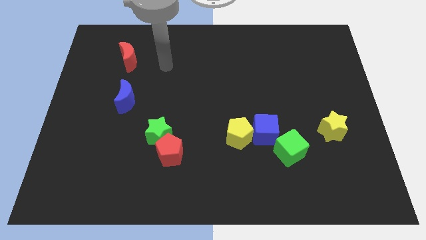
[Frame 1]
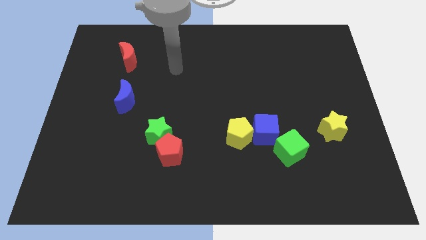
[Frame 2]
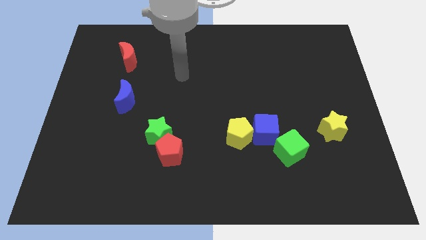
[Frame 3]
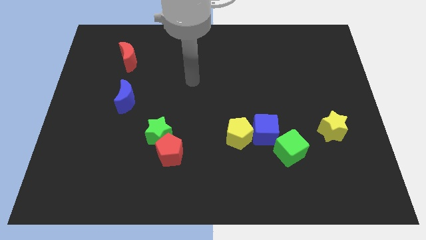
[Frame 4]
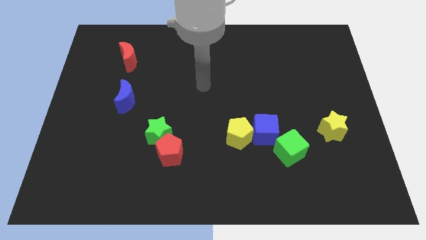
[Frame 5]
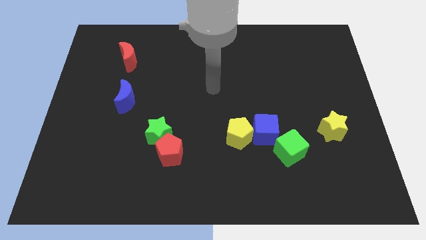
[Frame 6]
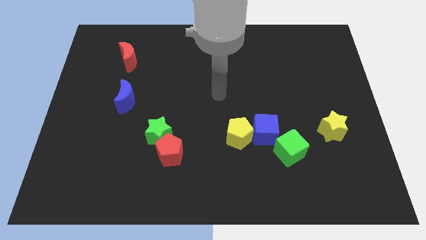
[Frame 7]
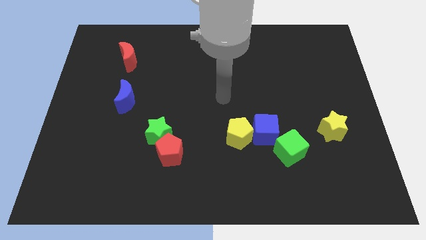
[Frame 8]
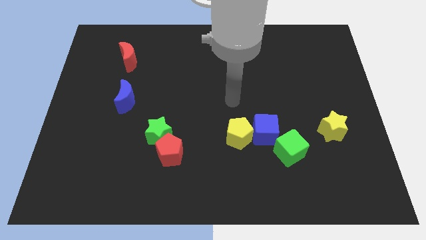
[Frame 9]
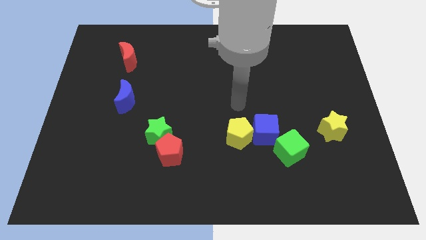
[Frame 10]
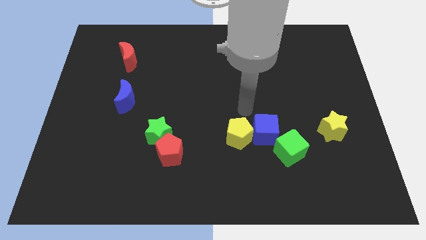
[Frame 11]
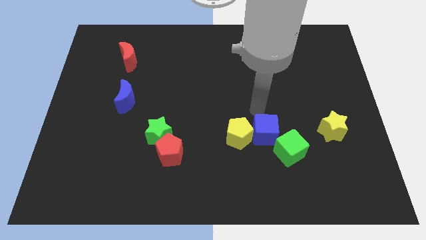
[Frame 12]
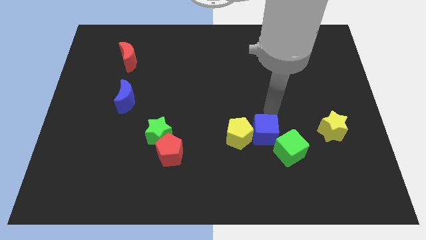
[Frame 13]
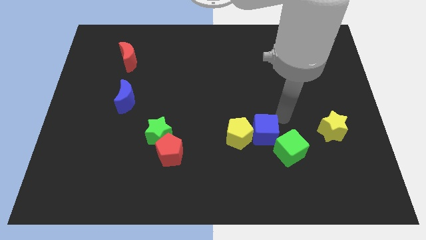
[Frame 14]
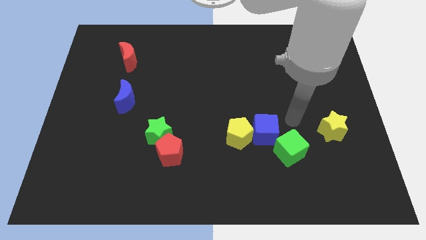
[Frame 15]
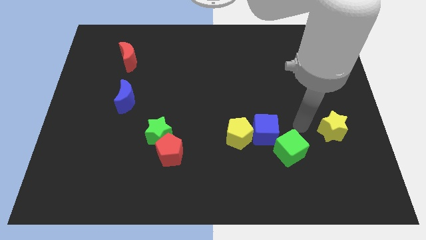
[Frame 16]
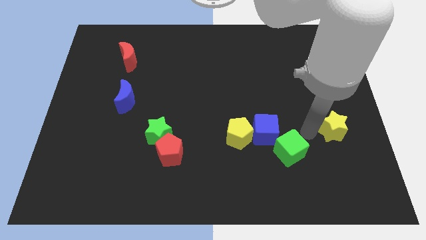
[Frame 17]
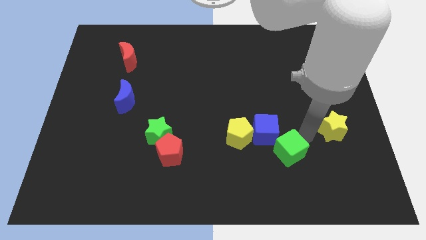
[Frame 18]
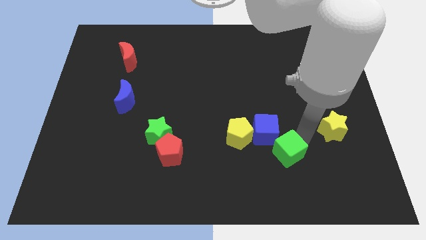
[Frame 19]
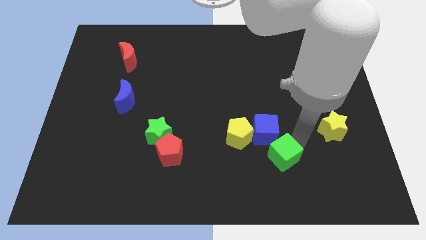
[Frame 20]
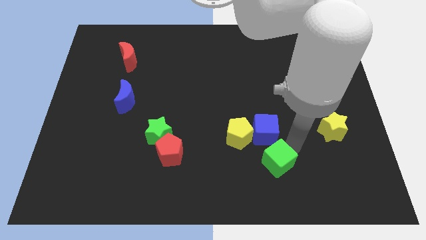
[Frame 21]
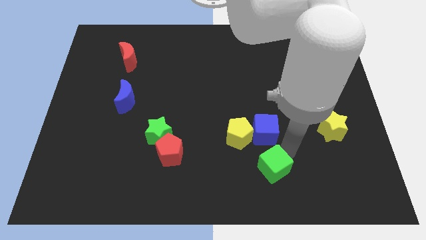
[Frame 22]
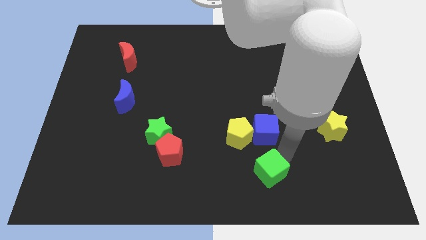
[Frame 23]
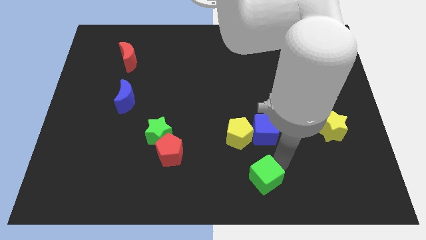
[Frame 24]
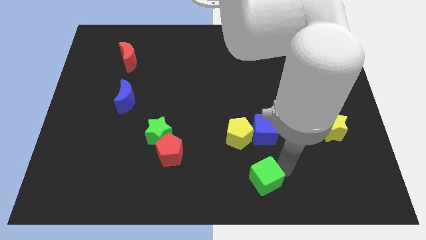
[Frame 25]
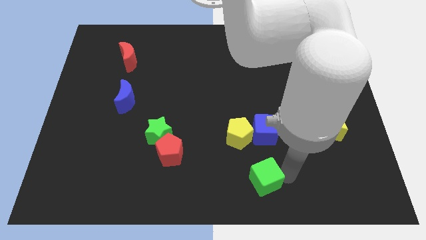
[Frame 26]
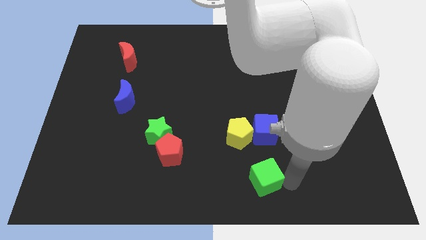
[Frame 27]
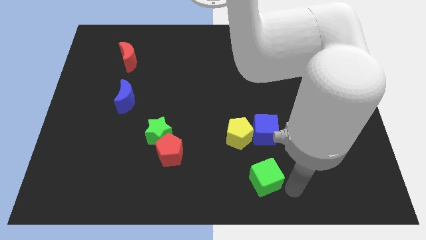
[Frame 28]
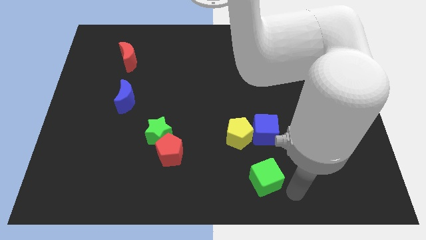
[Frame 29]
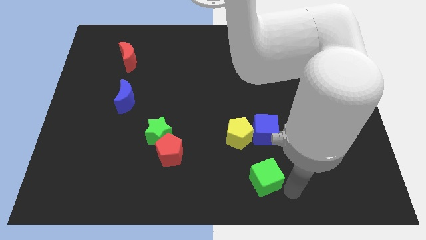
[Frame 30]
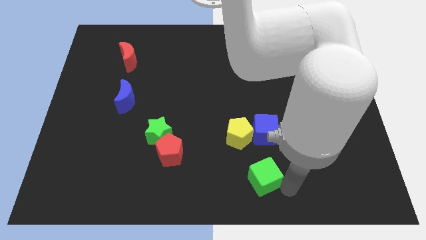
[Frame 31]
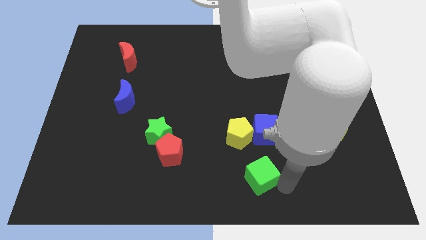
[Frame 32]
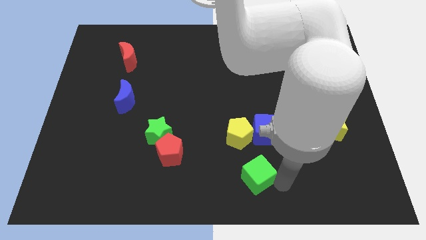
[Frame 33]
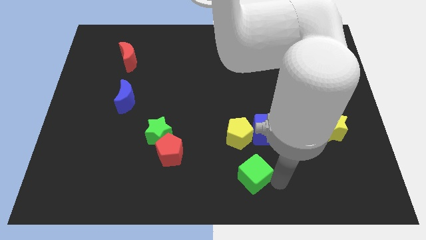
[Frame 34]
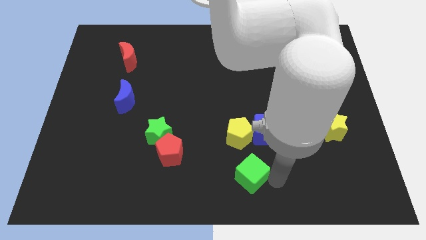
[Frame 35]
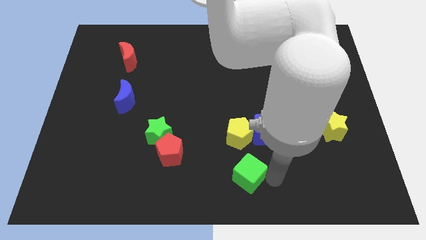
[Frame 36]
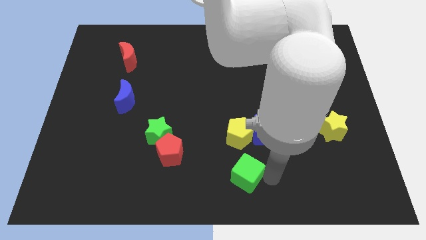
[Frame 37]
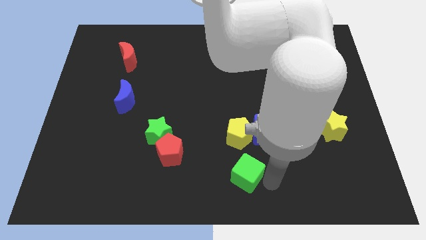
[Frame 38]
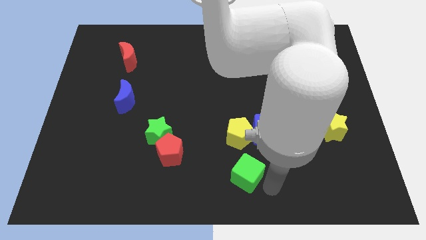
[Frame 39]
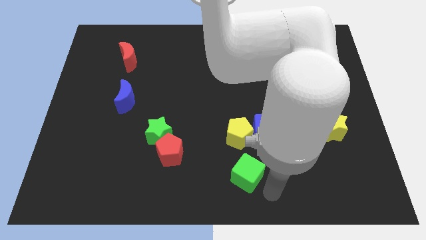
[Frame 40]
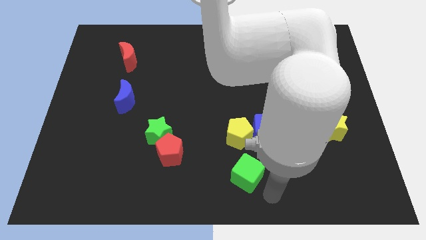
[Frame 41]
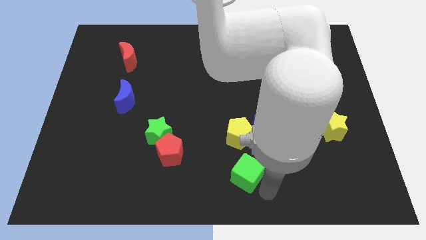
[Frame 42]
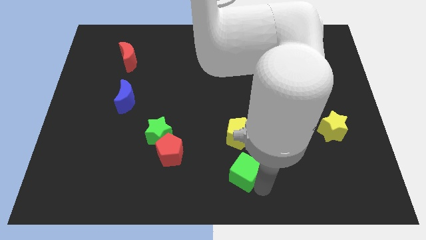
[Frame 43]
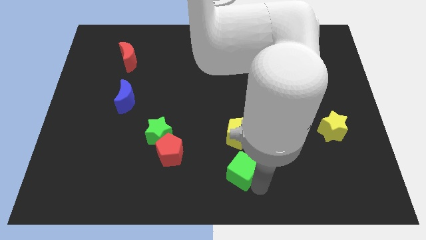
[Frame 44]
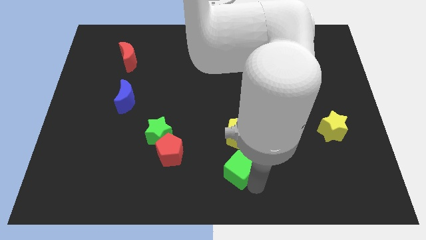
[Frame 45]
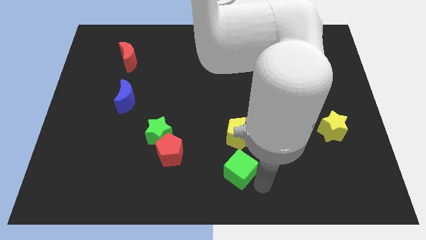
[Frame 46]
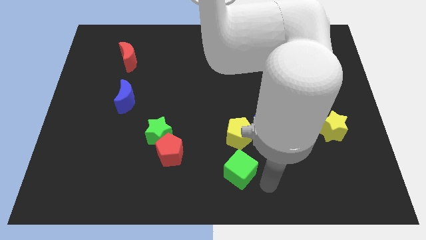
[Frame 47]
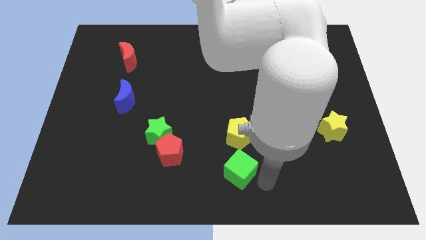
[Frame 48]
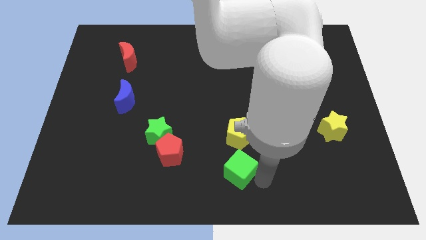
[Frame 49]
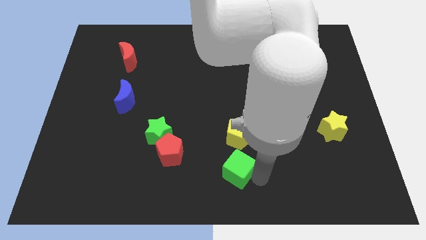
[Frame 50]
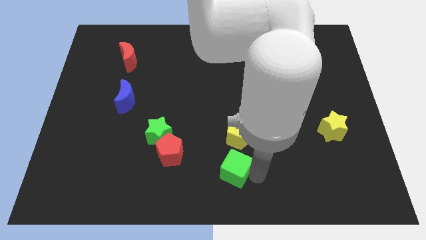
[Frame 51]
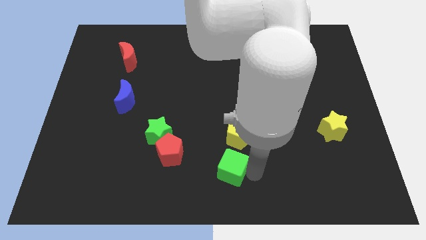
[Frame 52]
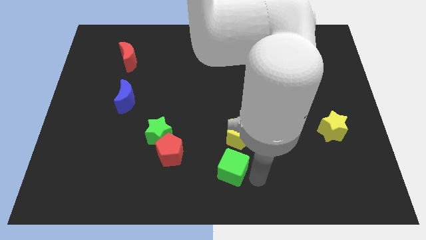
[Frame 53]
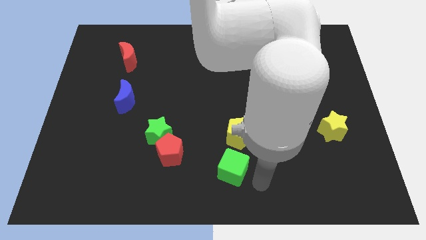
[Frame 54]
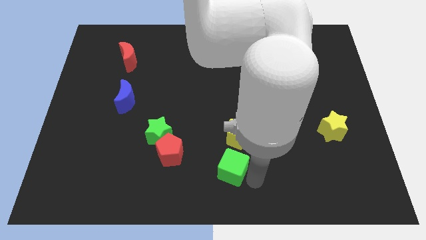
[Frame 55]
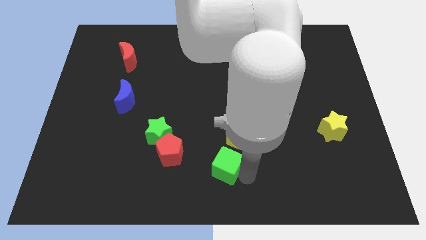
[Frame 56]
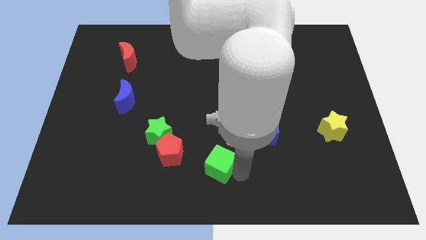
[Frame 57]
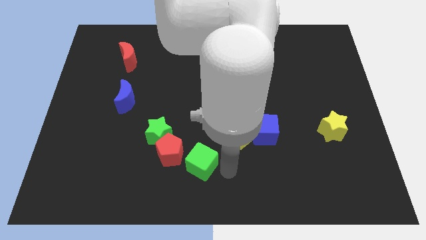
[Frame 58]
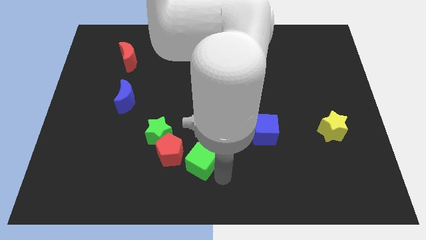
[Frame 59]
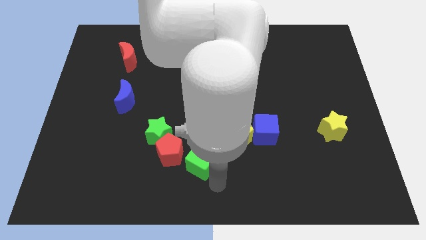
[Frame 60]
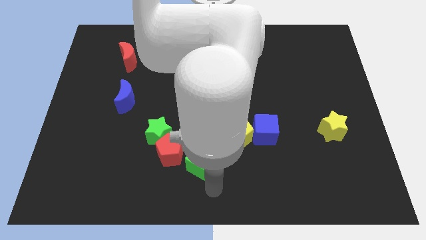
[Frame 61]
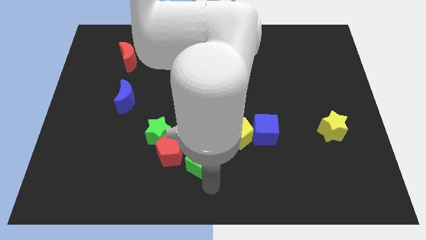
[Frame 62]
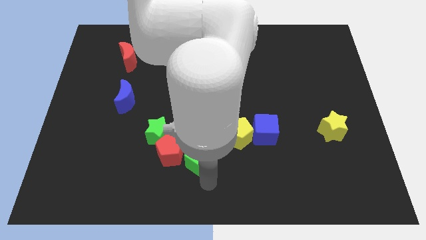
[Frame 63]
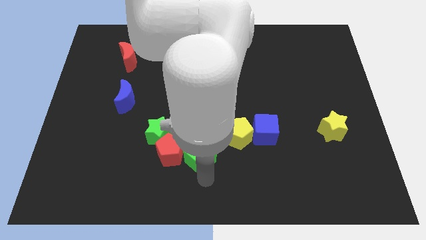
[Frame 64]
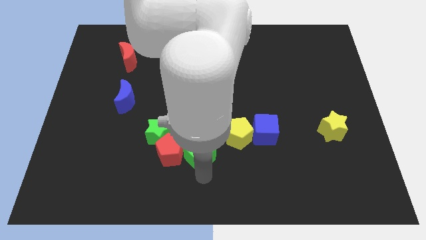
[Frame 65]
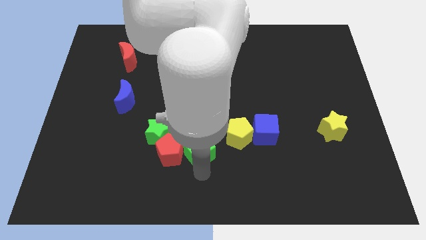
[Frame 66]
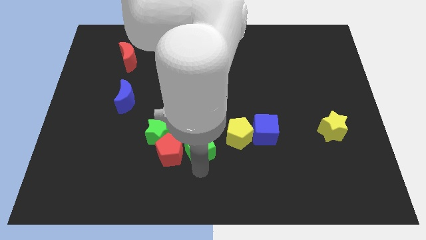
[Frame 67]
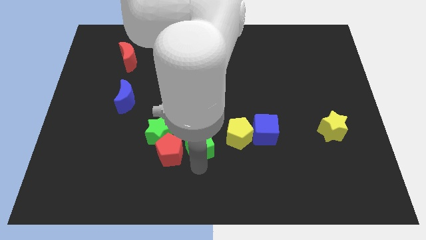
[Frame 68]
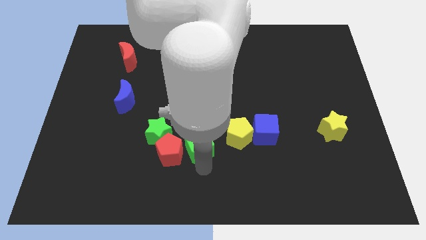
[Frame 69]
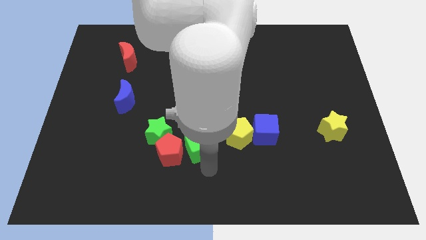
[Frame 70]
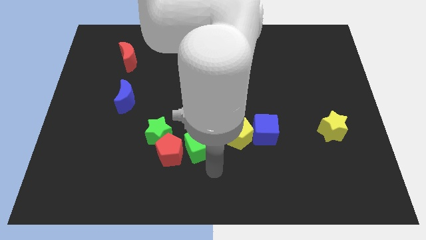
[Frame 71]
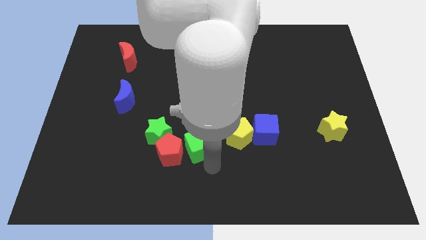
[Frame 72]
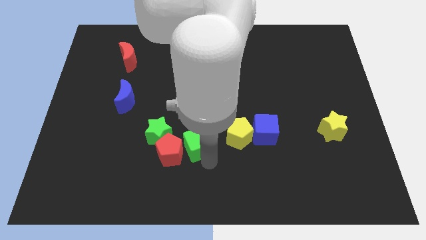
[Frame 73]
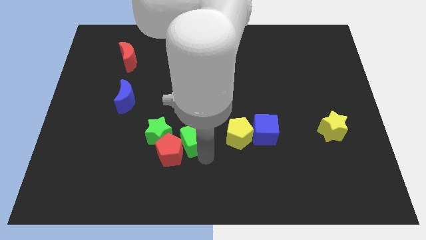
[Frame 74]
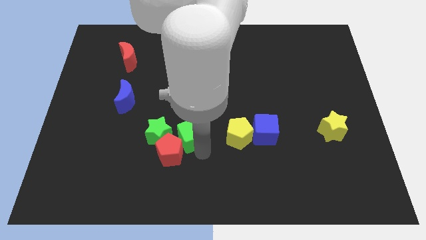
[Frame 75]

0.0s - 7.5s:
move the green cube to the top of the red pentagon
